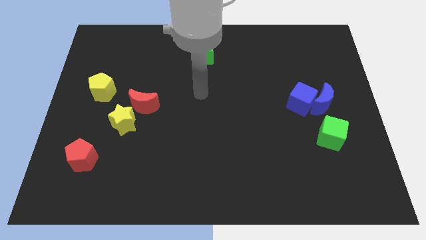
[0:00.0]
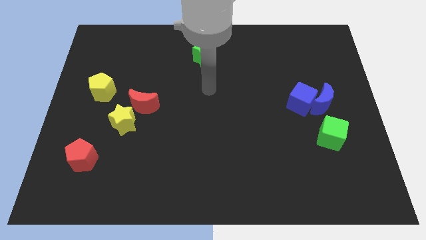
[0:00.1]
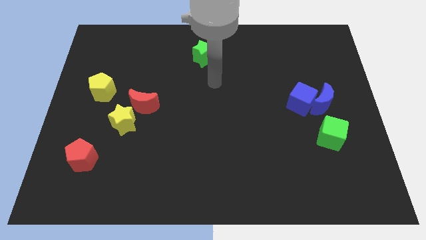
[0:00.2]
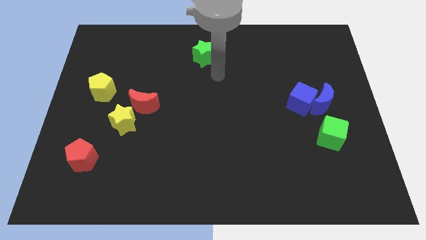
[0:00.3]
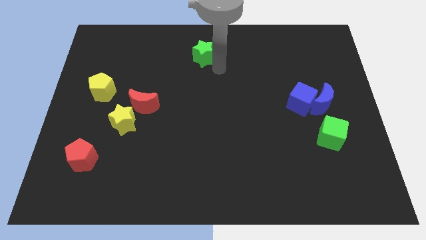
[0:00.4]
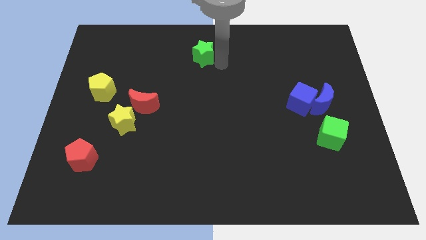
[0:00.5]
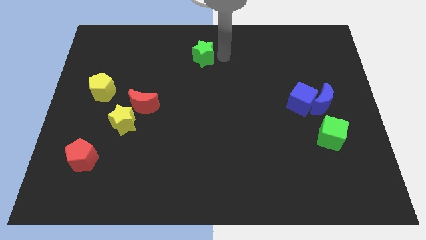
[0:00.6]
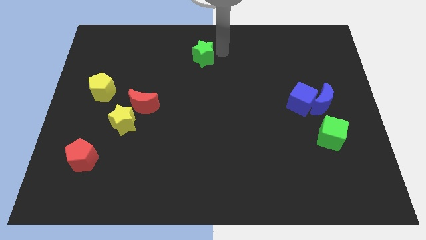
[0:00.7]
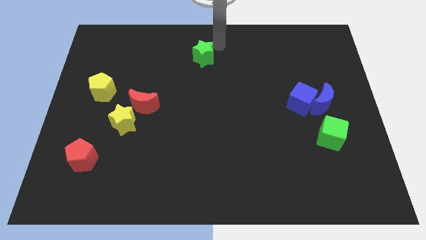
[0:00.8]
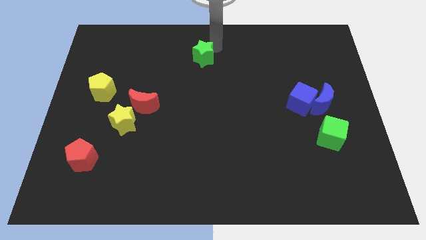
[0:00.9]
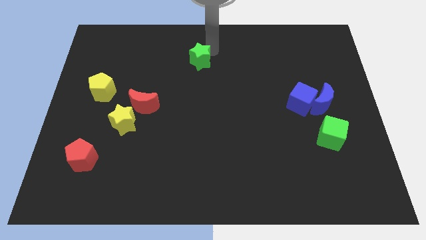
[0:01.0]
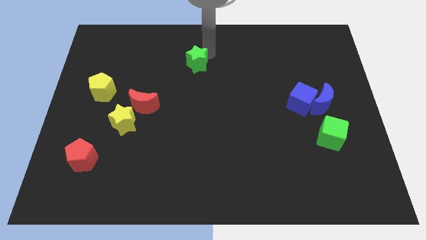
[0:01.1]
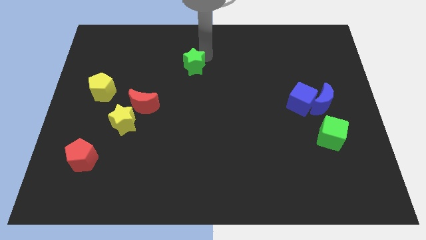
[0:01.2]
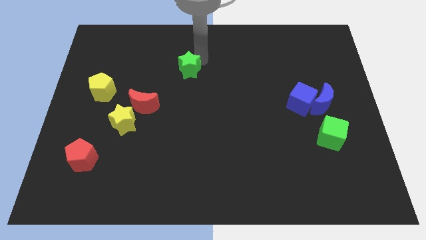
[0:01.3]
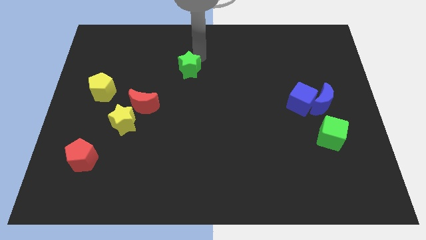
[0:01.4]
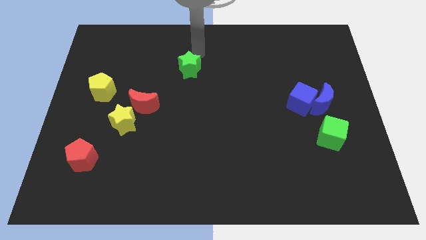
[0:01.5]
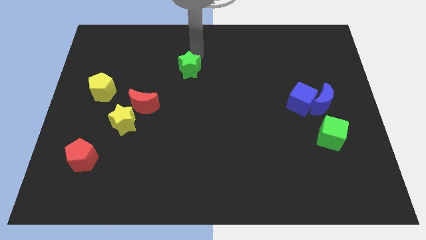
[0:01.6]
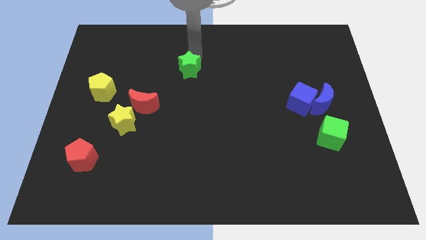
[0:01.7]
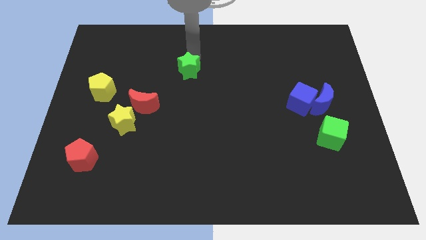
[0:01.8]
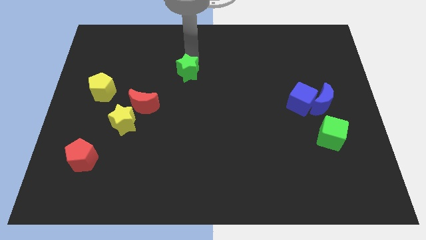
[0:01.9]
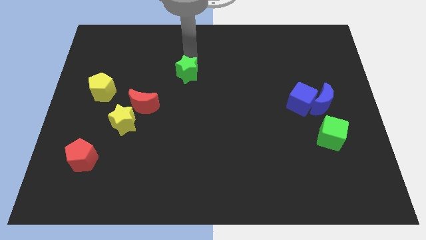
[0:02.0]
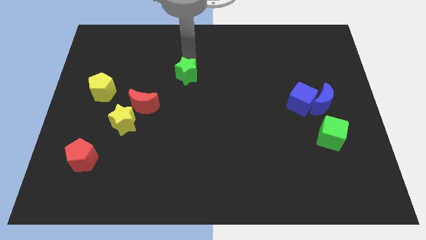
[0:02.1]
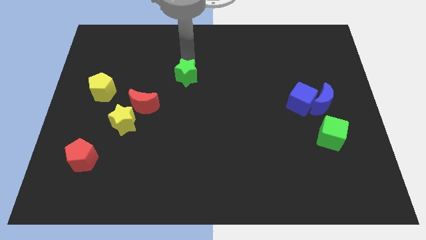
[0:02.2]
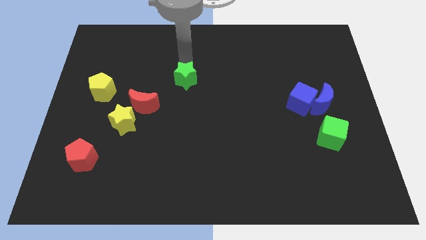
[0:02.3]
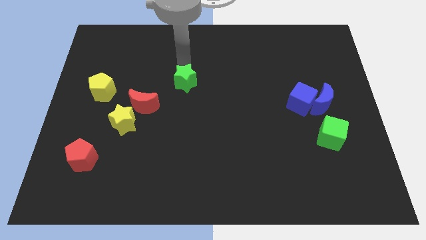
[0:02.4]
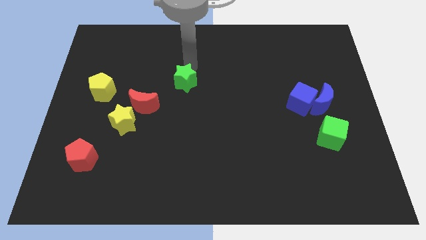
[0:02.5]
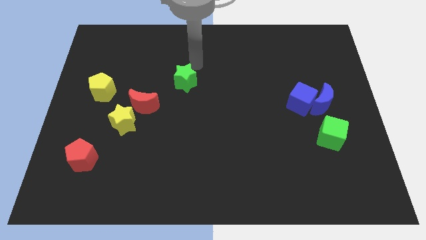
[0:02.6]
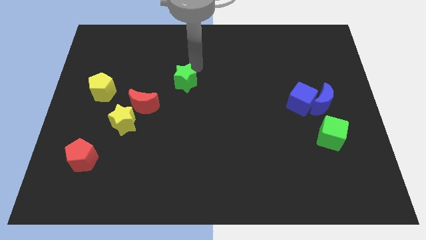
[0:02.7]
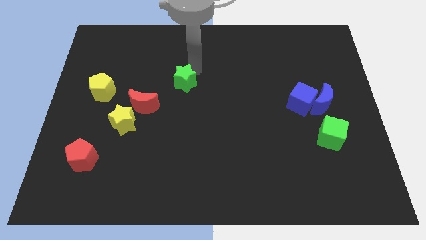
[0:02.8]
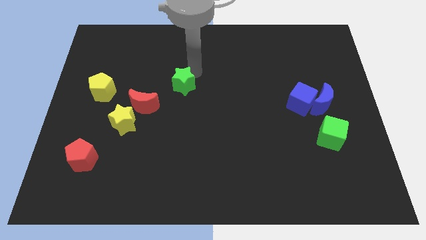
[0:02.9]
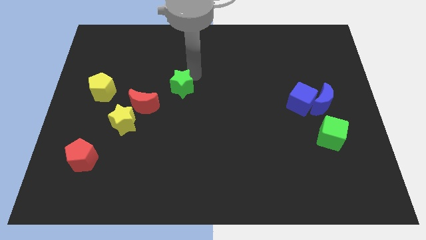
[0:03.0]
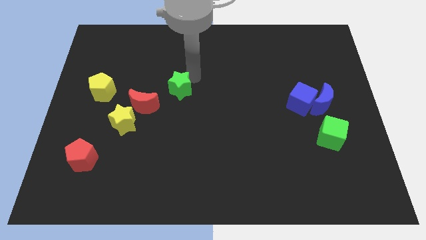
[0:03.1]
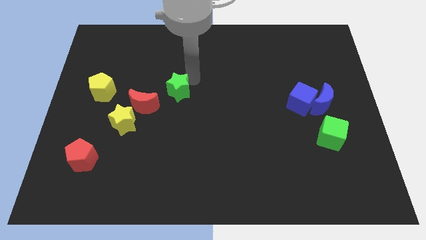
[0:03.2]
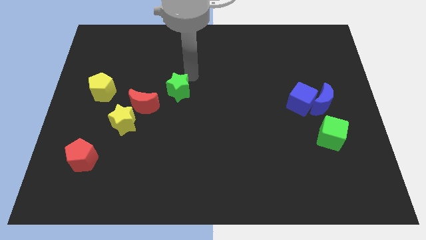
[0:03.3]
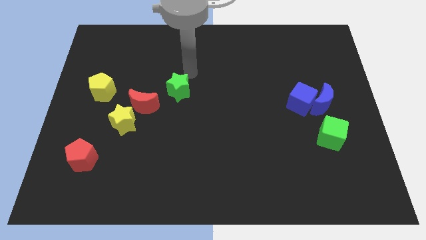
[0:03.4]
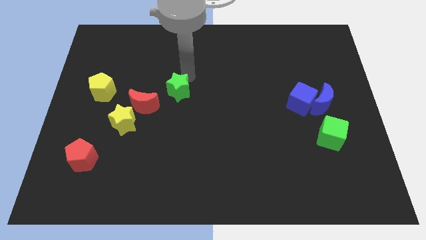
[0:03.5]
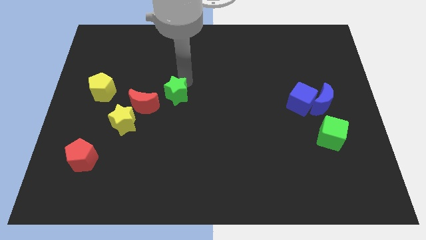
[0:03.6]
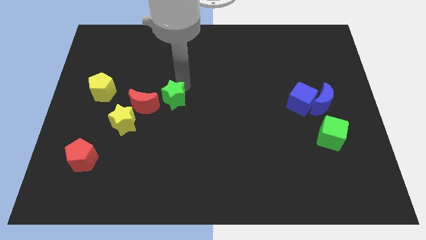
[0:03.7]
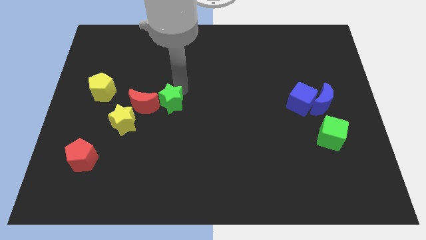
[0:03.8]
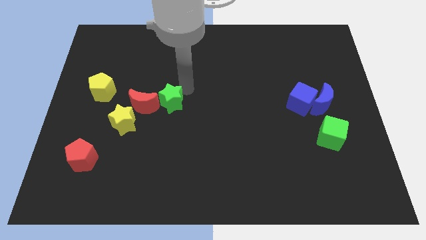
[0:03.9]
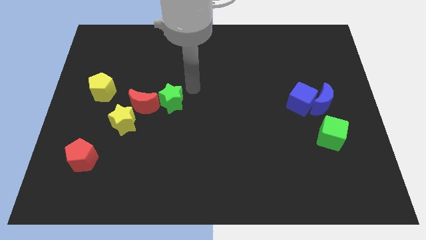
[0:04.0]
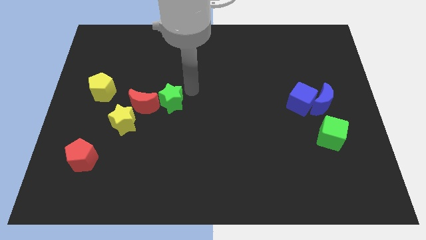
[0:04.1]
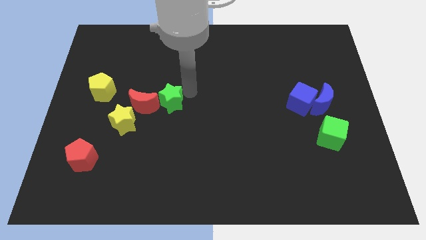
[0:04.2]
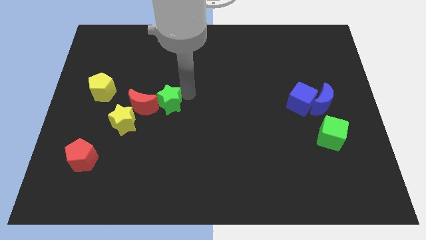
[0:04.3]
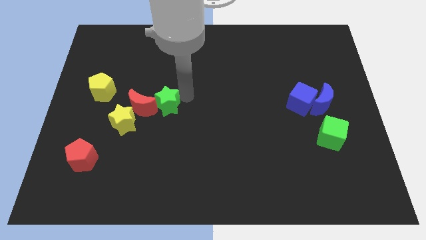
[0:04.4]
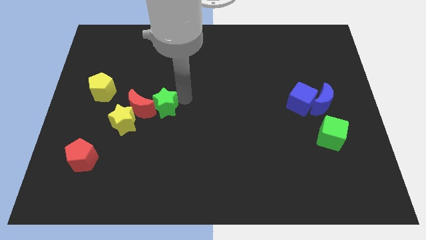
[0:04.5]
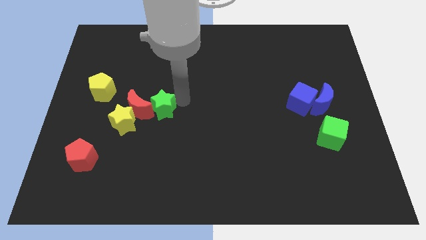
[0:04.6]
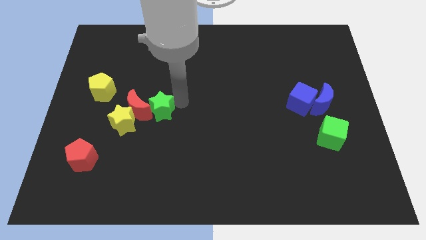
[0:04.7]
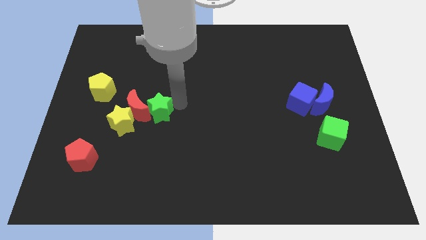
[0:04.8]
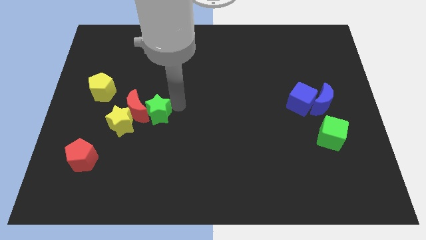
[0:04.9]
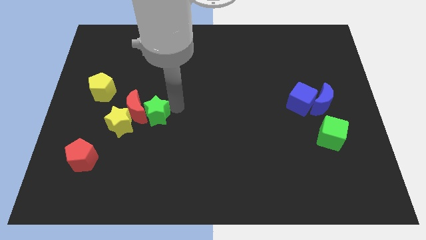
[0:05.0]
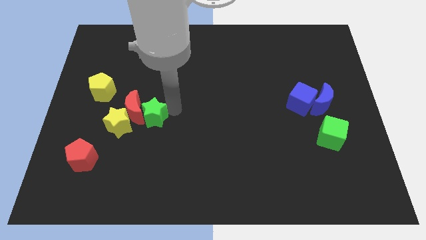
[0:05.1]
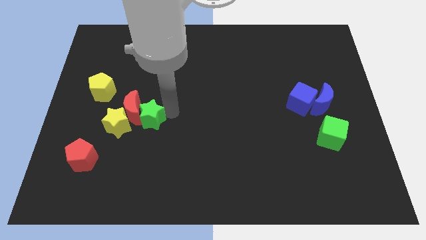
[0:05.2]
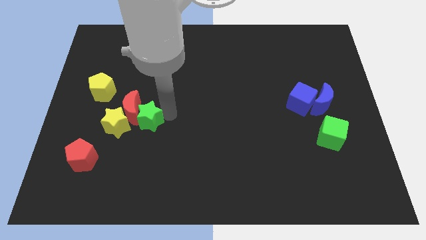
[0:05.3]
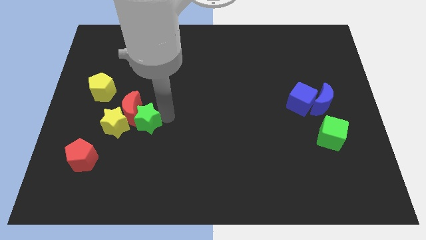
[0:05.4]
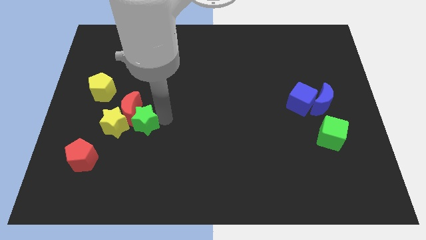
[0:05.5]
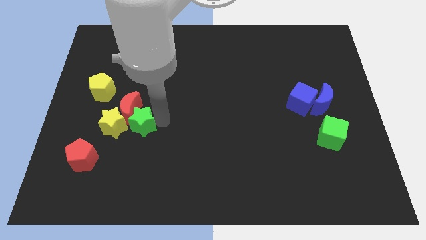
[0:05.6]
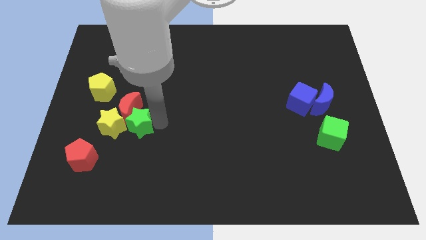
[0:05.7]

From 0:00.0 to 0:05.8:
push the green star close to the yellow star

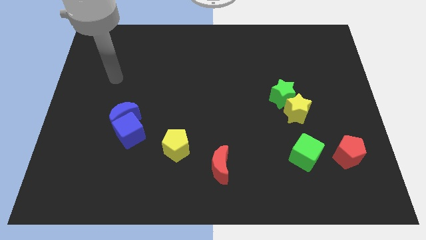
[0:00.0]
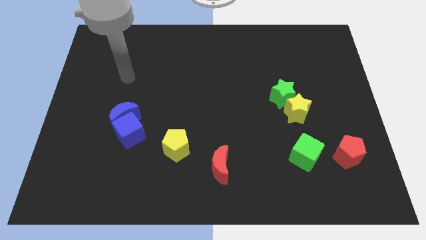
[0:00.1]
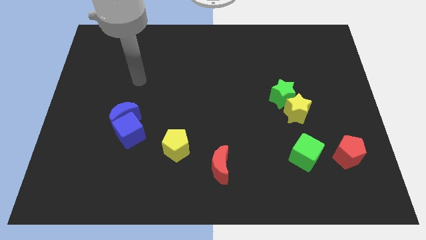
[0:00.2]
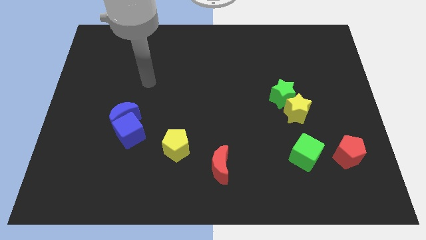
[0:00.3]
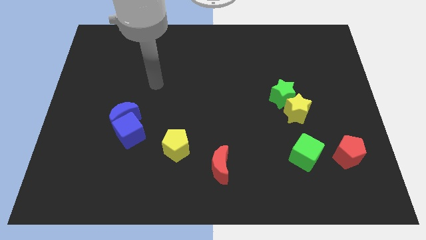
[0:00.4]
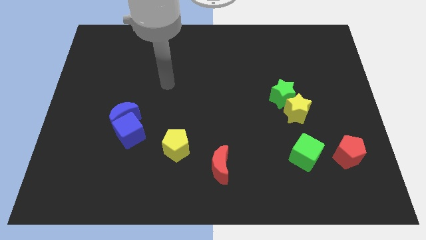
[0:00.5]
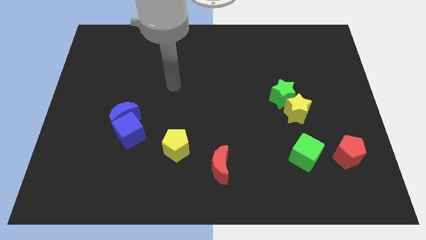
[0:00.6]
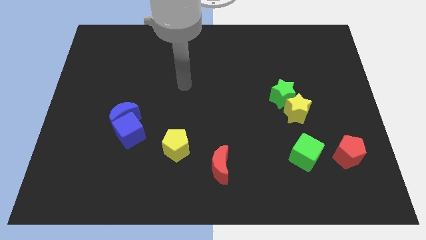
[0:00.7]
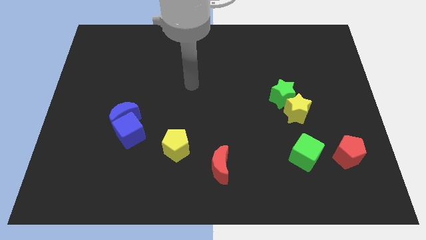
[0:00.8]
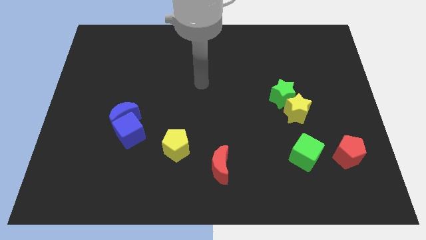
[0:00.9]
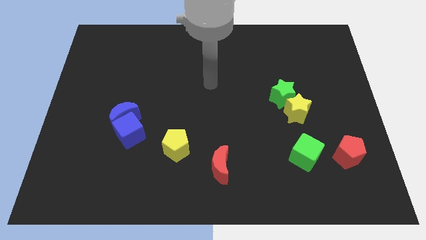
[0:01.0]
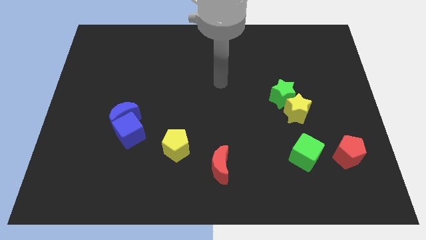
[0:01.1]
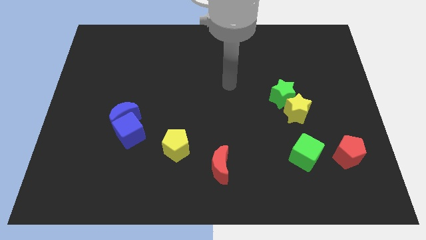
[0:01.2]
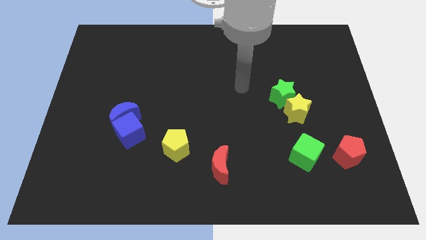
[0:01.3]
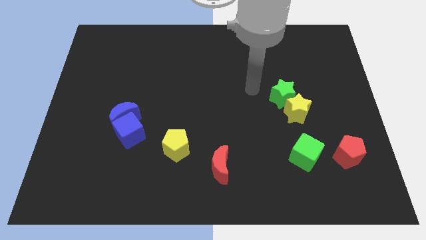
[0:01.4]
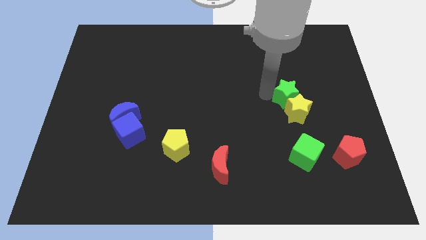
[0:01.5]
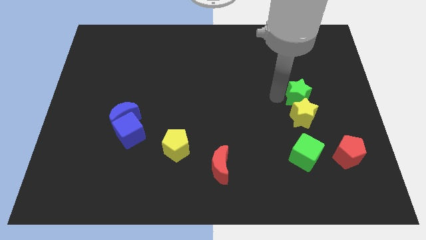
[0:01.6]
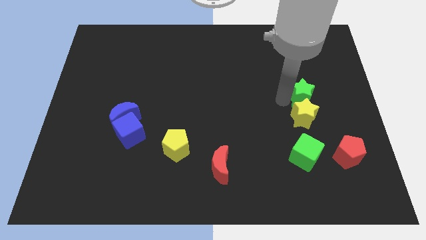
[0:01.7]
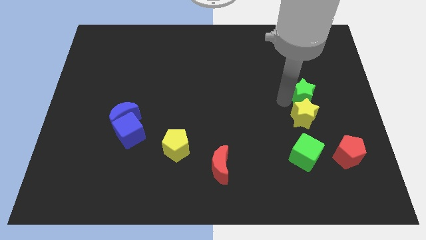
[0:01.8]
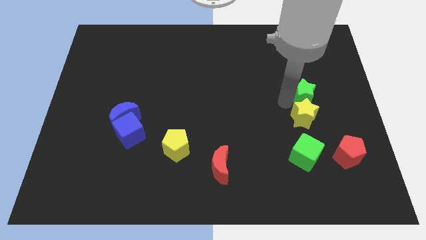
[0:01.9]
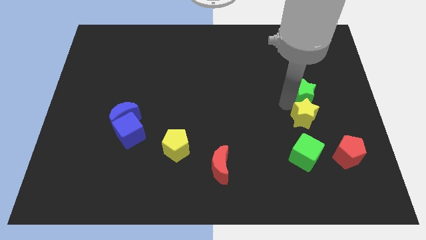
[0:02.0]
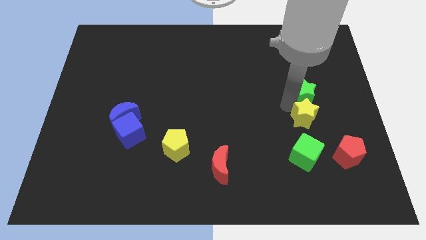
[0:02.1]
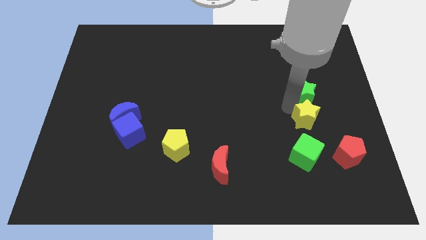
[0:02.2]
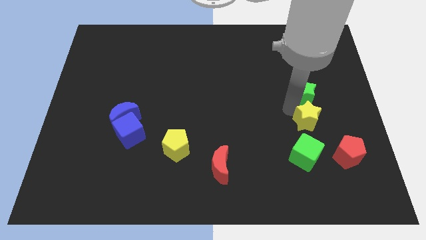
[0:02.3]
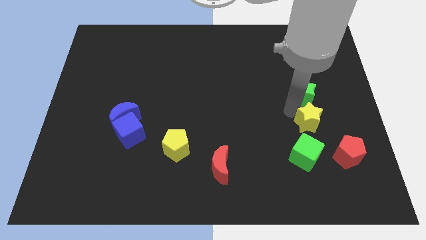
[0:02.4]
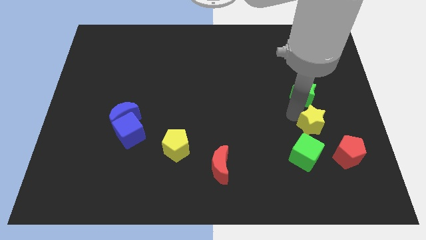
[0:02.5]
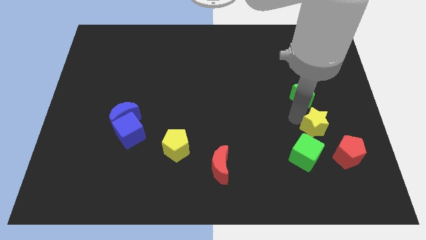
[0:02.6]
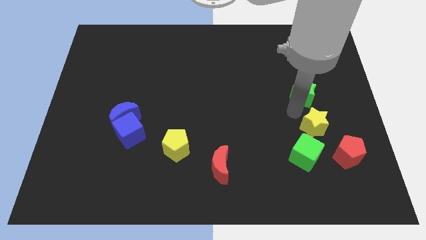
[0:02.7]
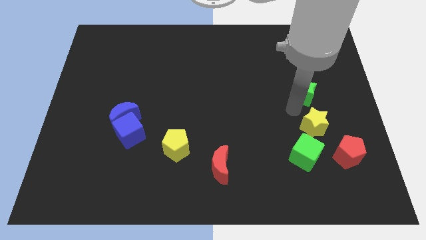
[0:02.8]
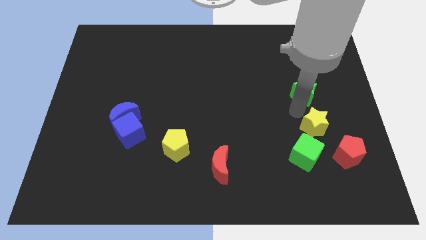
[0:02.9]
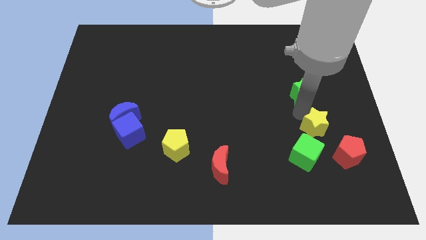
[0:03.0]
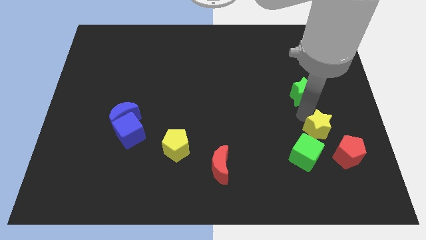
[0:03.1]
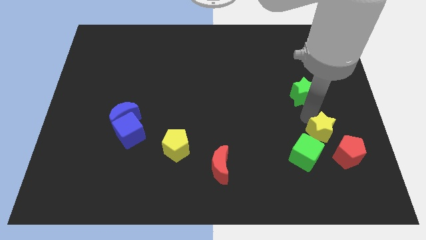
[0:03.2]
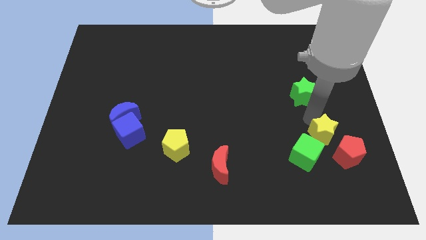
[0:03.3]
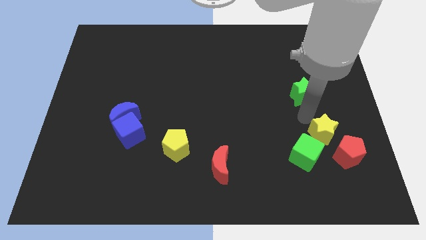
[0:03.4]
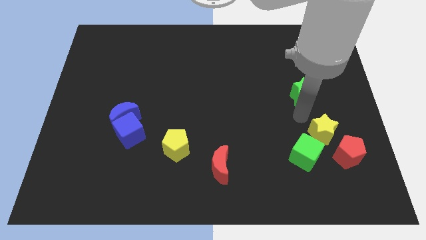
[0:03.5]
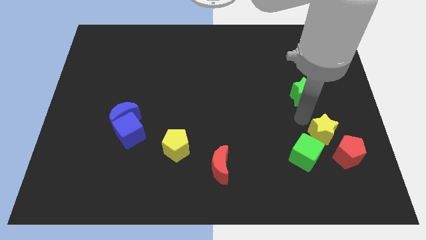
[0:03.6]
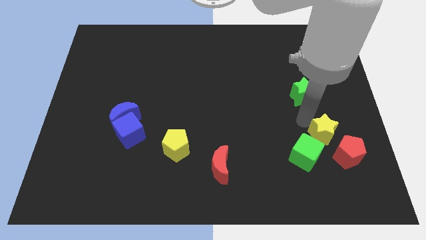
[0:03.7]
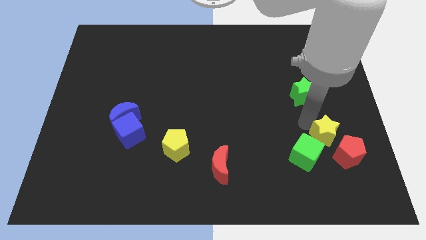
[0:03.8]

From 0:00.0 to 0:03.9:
move the yellow star close to the red pentagon
